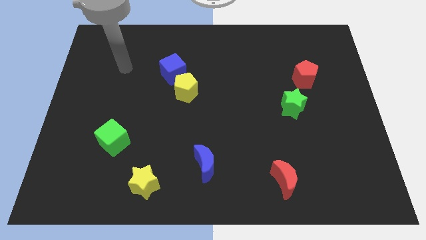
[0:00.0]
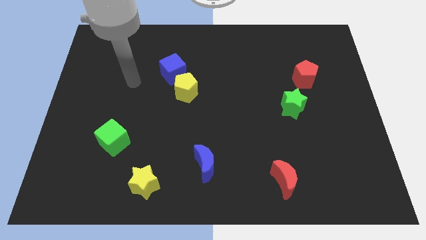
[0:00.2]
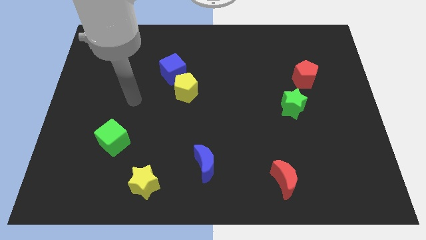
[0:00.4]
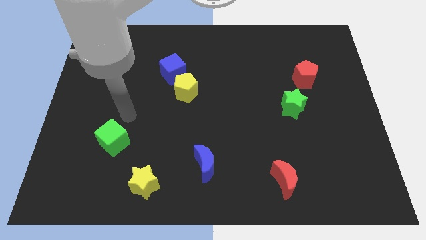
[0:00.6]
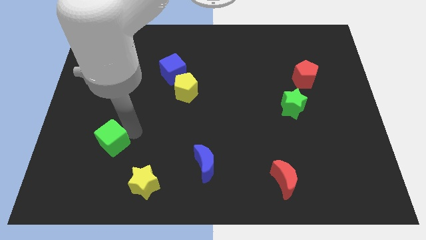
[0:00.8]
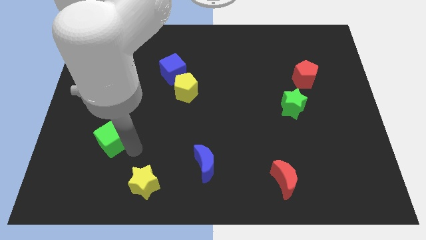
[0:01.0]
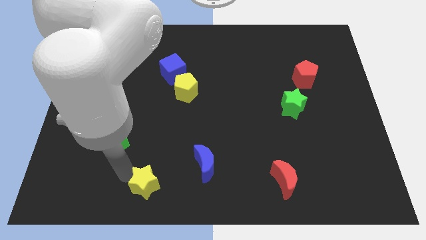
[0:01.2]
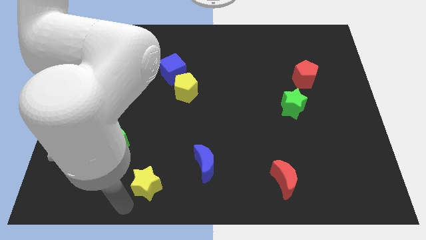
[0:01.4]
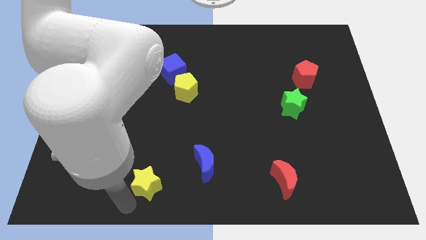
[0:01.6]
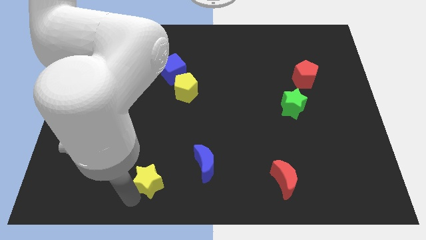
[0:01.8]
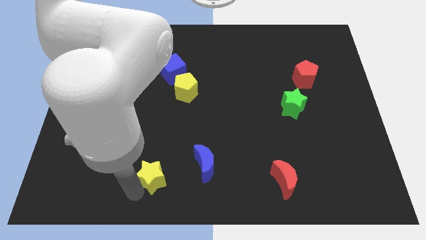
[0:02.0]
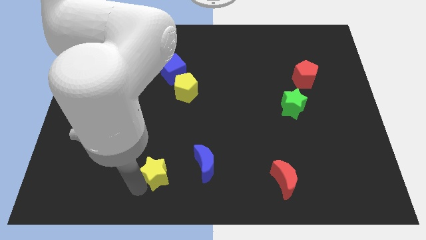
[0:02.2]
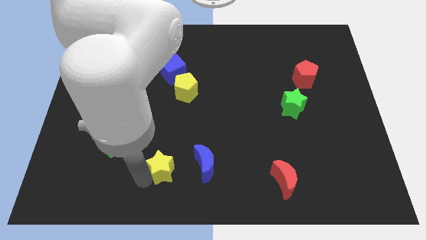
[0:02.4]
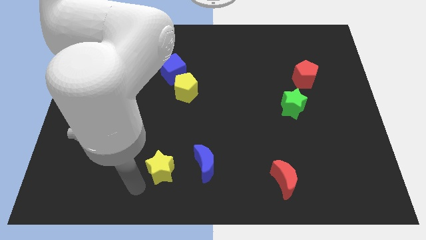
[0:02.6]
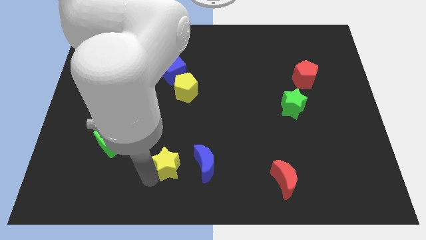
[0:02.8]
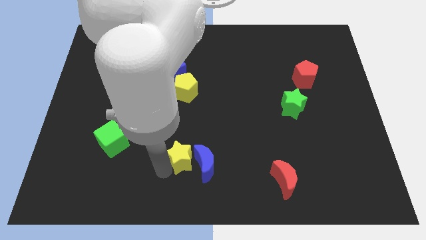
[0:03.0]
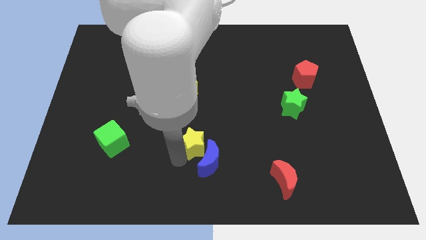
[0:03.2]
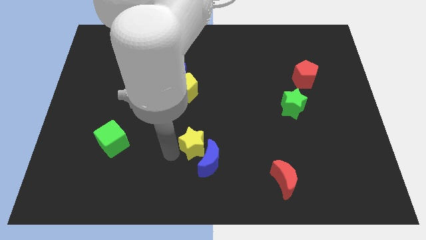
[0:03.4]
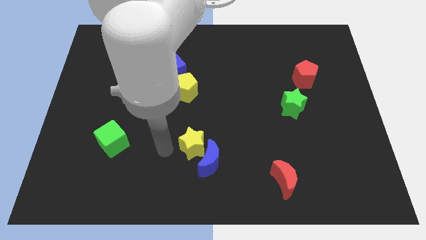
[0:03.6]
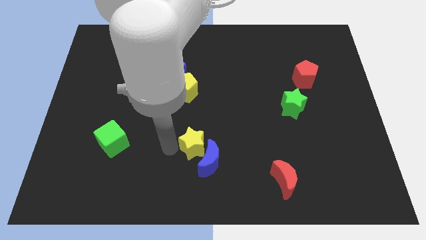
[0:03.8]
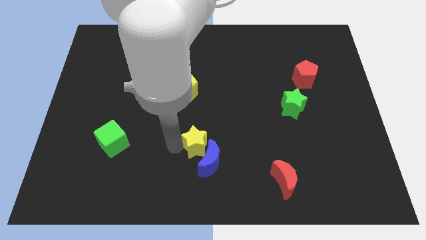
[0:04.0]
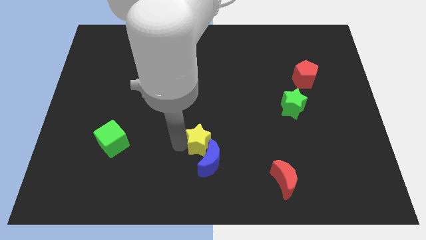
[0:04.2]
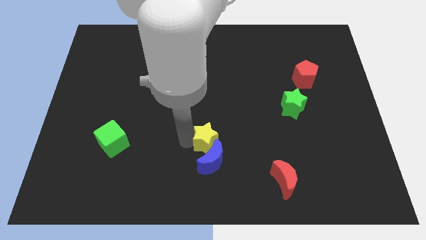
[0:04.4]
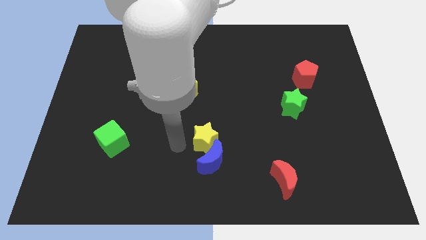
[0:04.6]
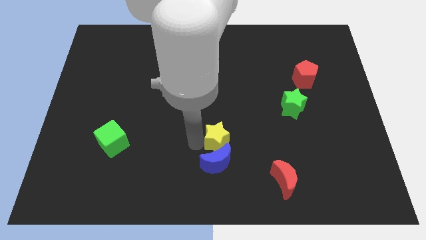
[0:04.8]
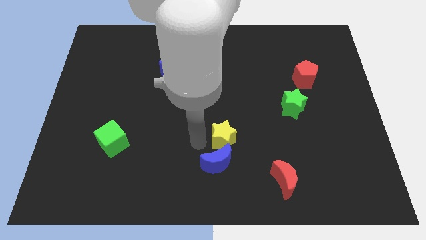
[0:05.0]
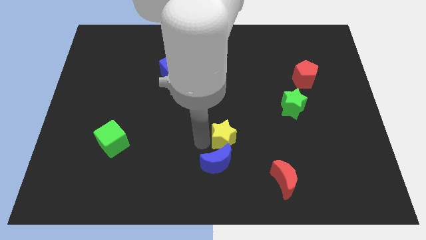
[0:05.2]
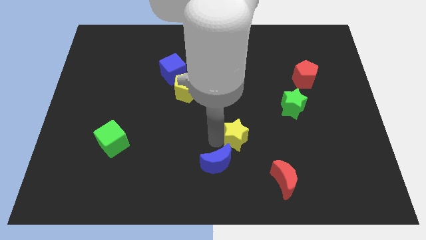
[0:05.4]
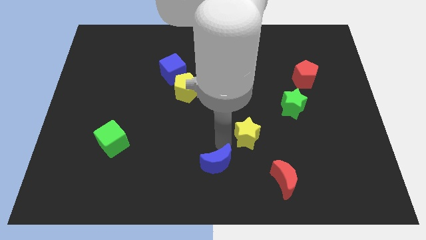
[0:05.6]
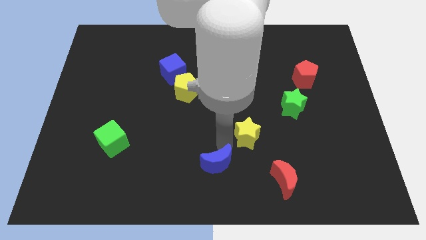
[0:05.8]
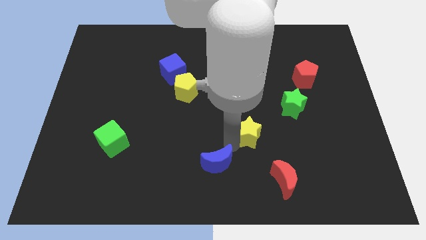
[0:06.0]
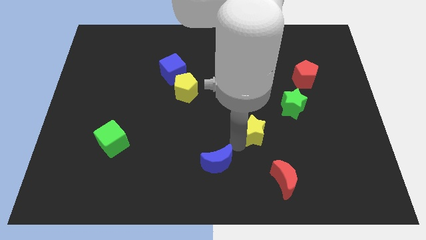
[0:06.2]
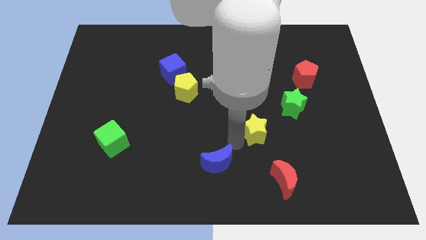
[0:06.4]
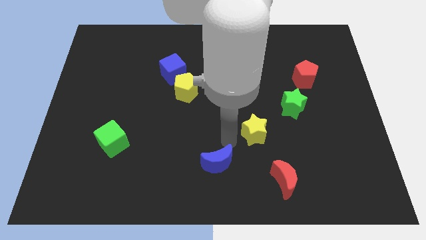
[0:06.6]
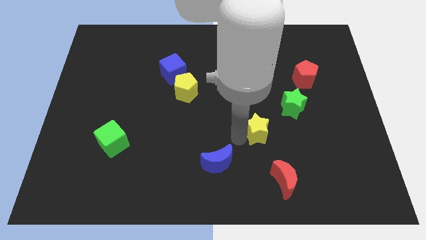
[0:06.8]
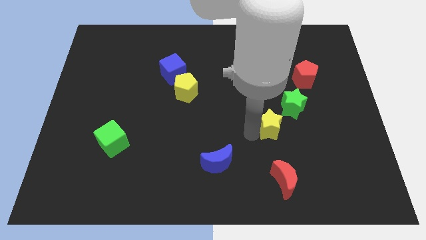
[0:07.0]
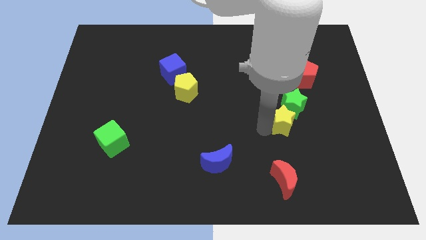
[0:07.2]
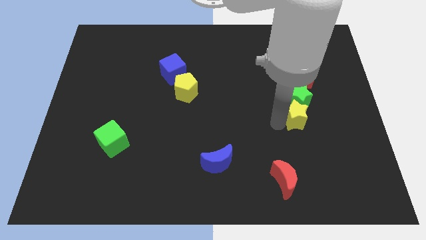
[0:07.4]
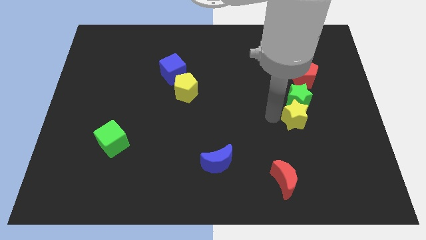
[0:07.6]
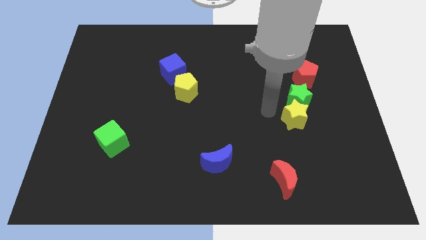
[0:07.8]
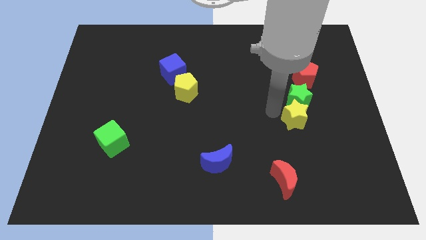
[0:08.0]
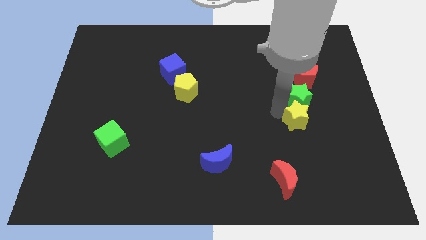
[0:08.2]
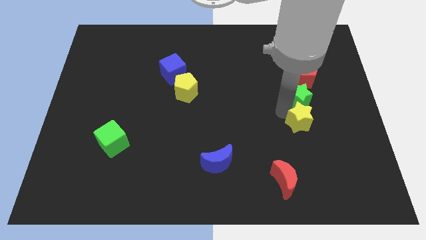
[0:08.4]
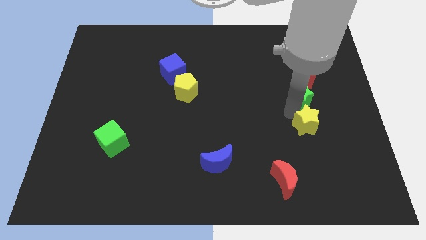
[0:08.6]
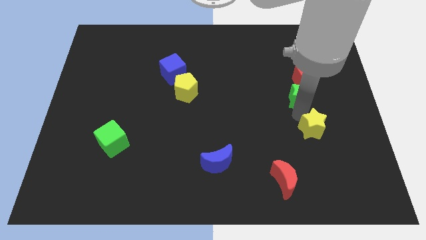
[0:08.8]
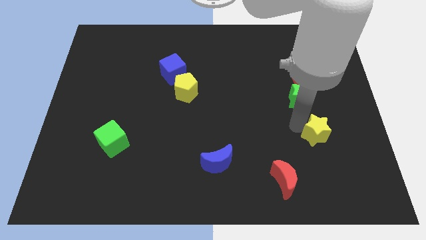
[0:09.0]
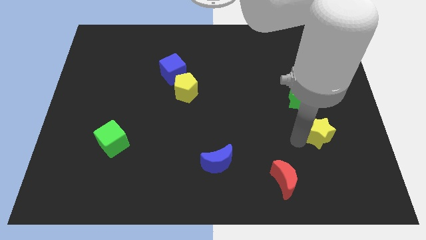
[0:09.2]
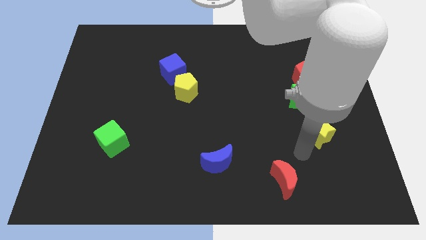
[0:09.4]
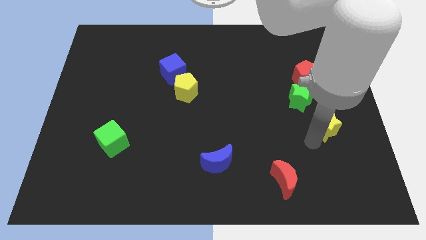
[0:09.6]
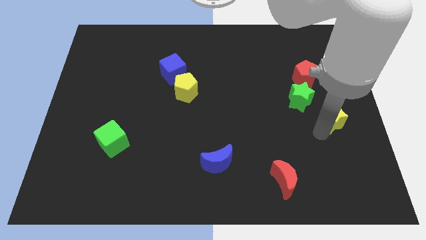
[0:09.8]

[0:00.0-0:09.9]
put the yellow star to the center right

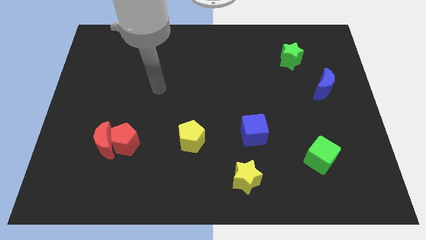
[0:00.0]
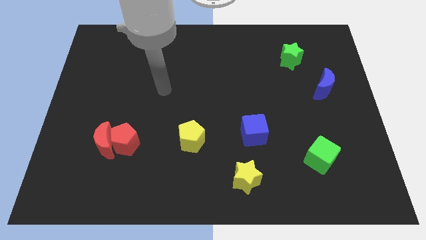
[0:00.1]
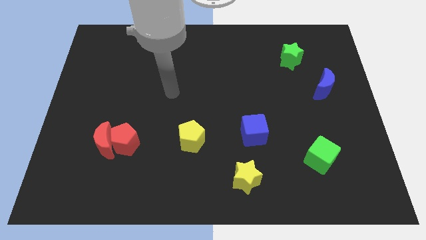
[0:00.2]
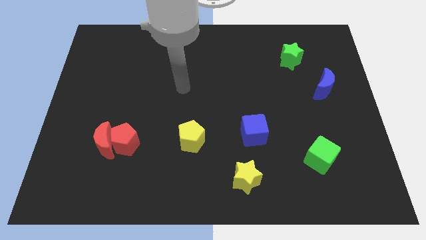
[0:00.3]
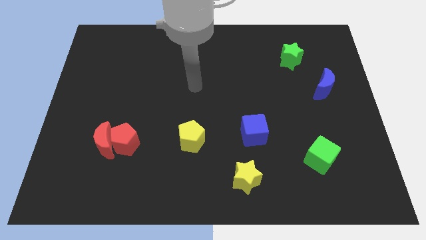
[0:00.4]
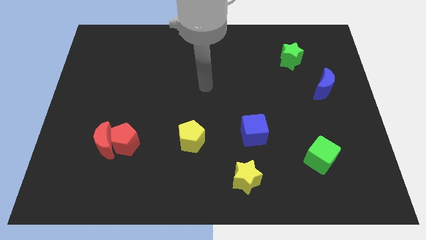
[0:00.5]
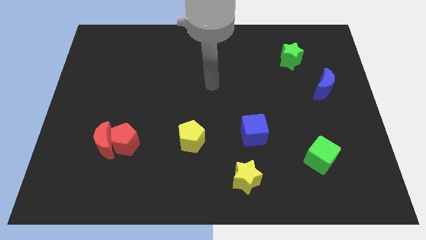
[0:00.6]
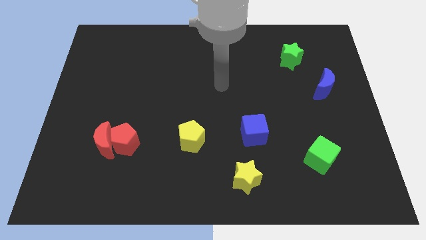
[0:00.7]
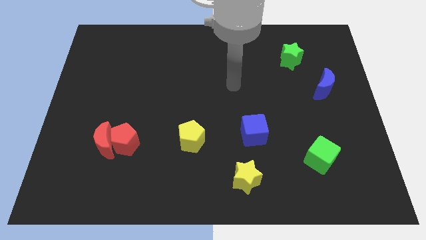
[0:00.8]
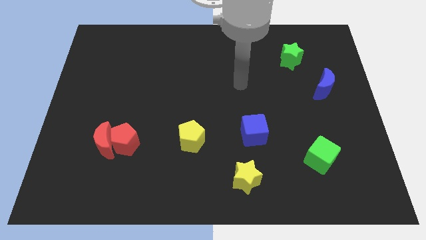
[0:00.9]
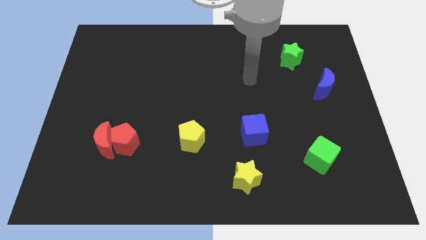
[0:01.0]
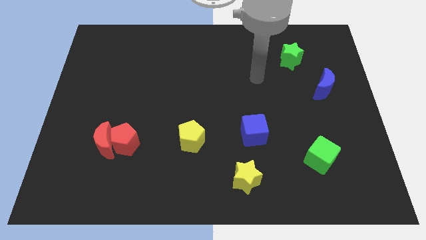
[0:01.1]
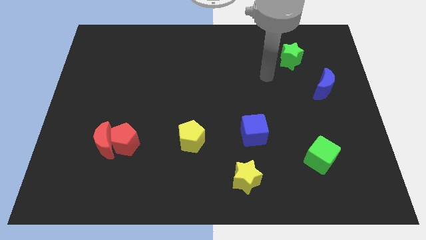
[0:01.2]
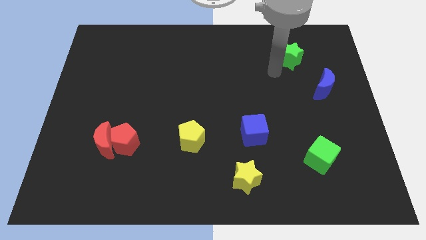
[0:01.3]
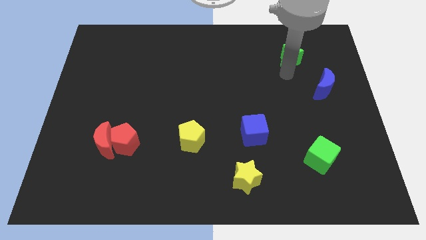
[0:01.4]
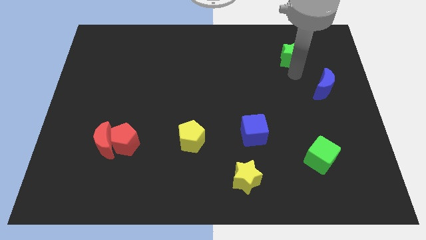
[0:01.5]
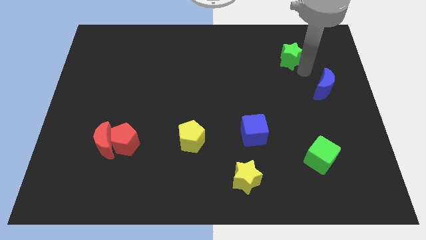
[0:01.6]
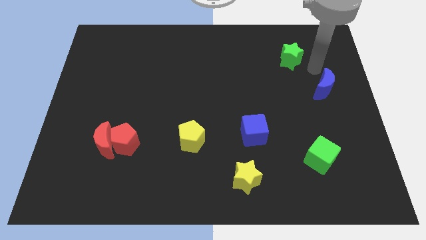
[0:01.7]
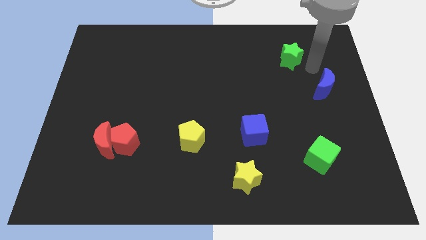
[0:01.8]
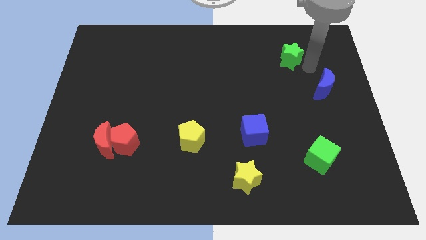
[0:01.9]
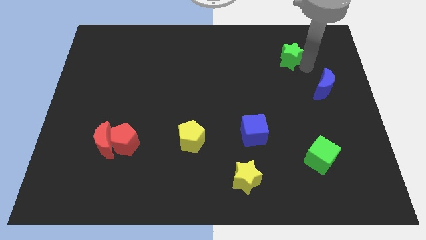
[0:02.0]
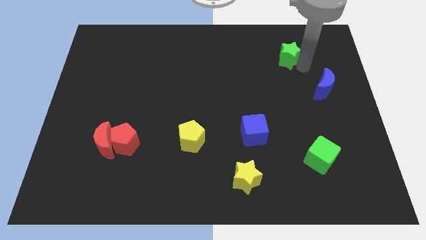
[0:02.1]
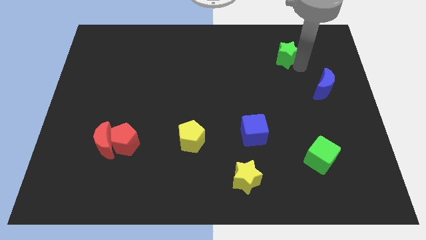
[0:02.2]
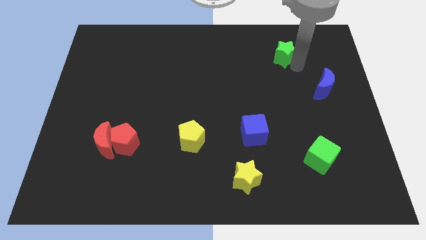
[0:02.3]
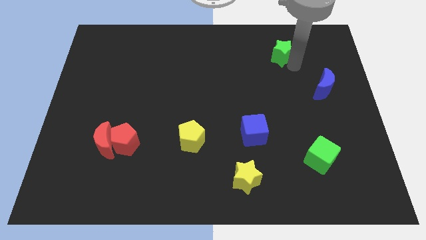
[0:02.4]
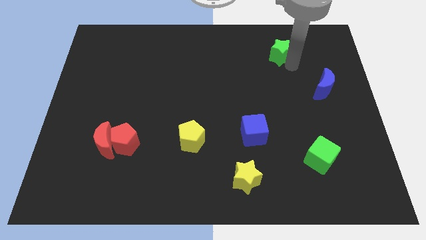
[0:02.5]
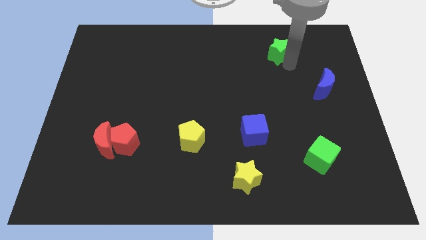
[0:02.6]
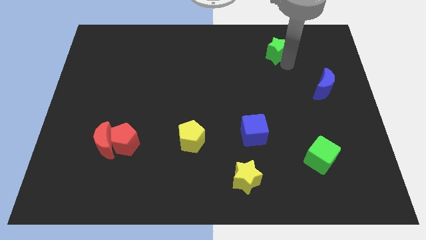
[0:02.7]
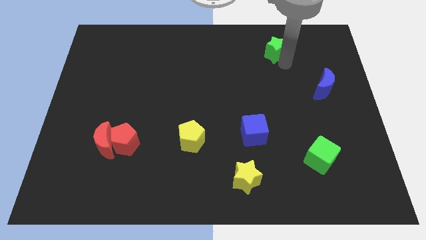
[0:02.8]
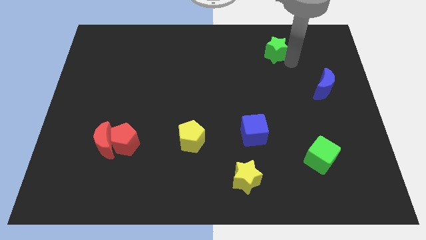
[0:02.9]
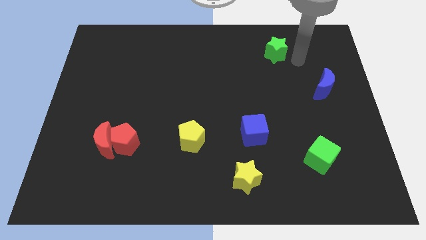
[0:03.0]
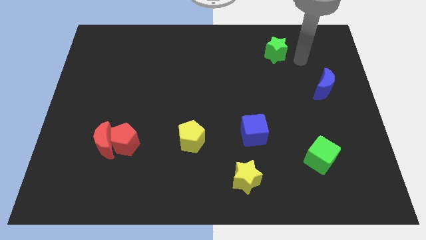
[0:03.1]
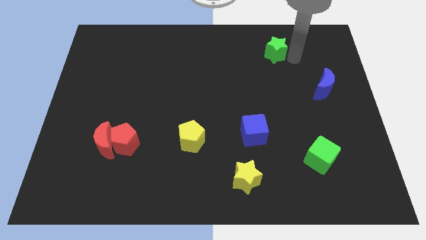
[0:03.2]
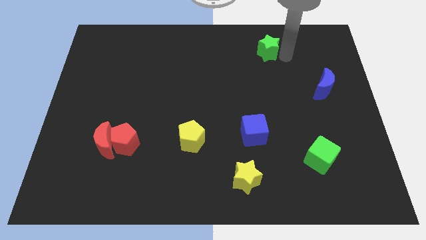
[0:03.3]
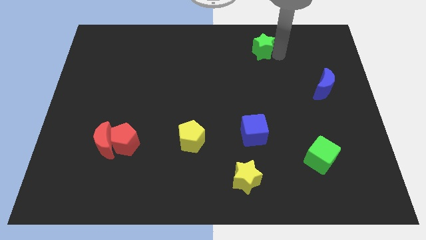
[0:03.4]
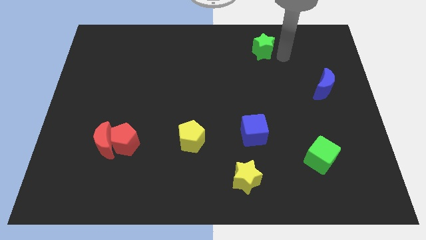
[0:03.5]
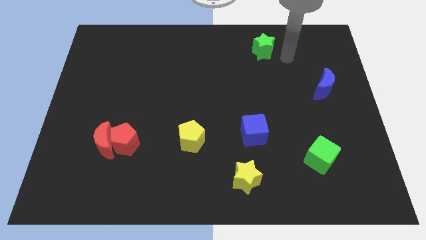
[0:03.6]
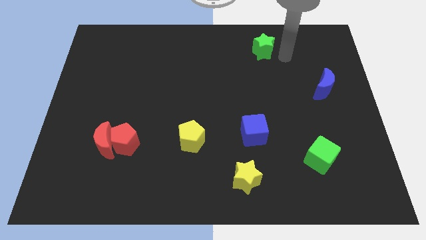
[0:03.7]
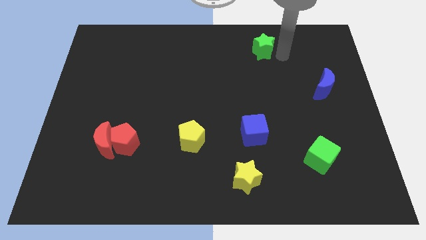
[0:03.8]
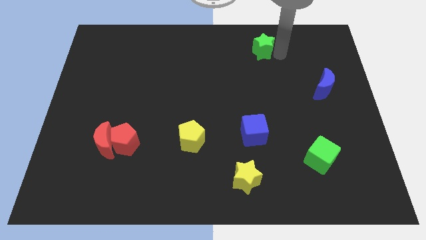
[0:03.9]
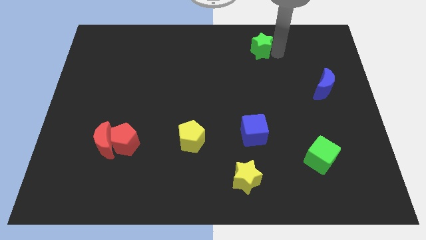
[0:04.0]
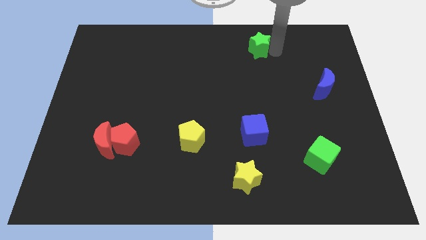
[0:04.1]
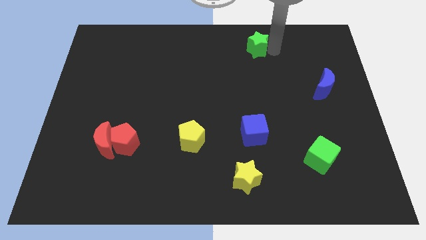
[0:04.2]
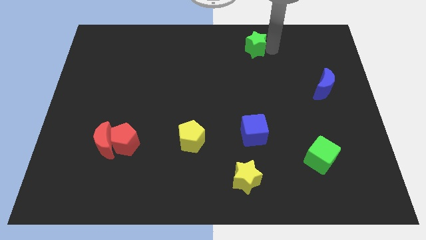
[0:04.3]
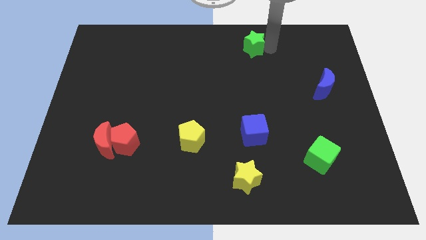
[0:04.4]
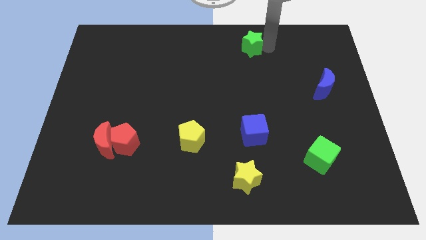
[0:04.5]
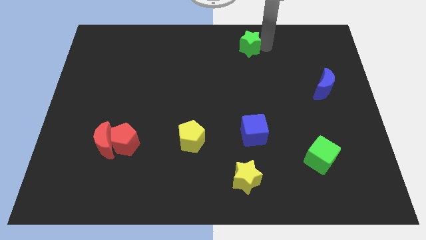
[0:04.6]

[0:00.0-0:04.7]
put the green star to the towards your base
